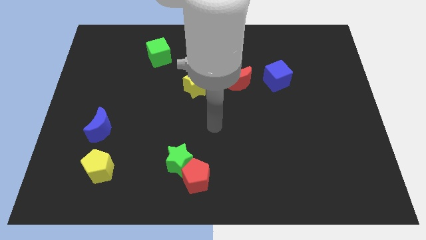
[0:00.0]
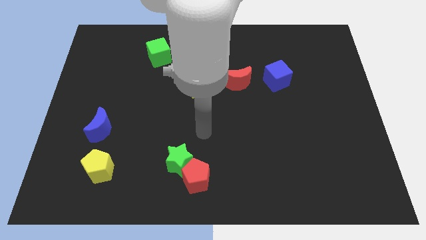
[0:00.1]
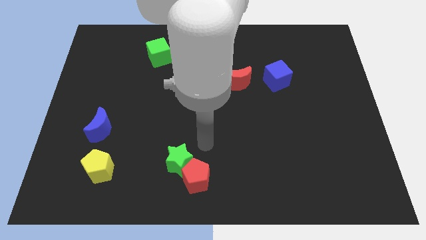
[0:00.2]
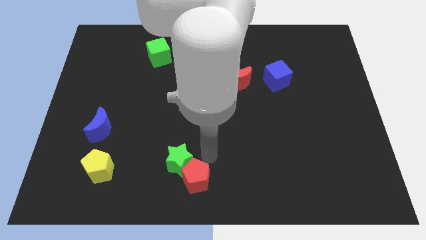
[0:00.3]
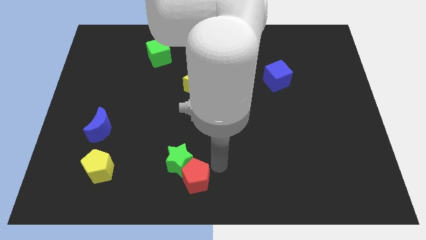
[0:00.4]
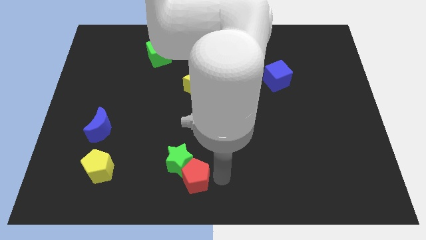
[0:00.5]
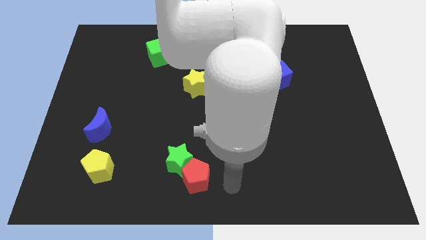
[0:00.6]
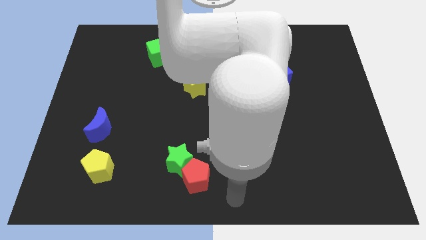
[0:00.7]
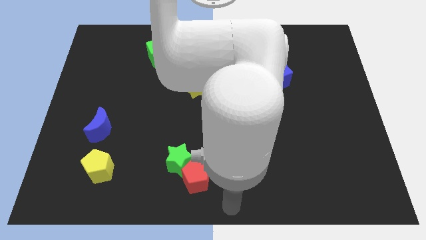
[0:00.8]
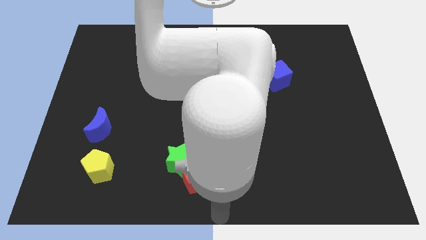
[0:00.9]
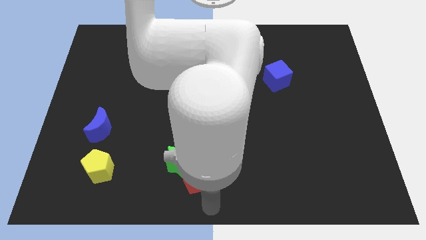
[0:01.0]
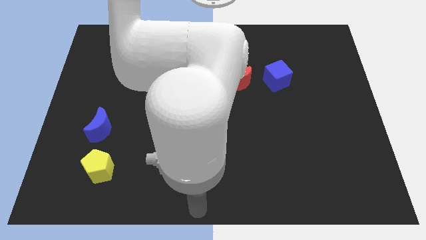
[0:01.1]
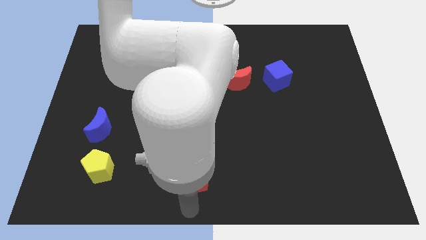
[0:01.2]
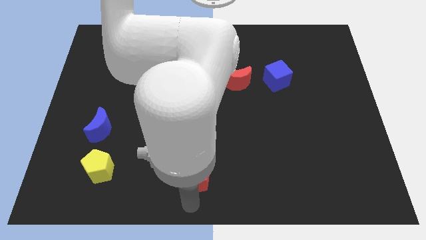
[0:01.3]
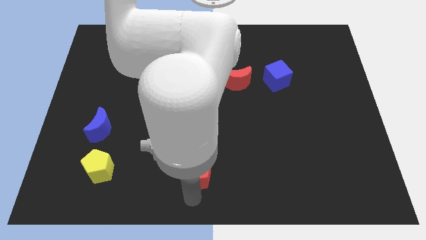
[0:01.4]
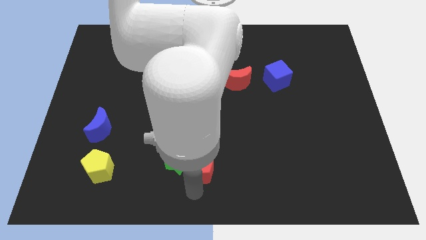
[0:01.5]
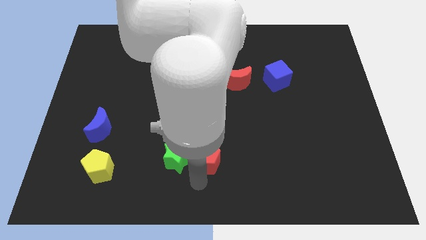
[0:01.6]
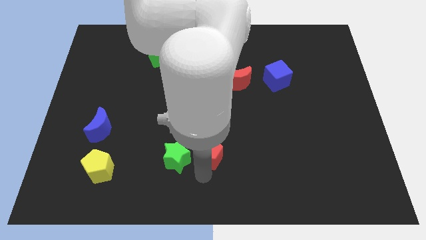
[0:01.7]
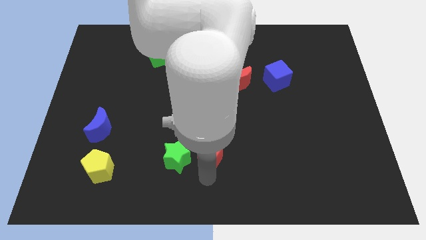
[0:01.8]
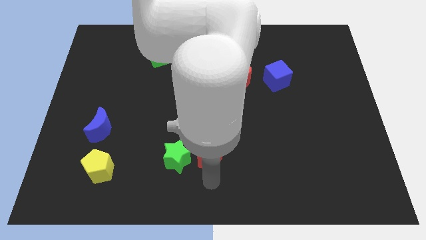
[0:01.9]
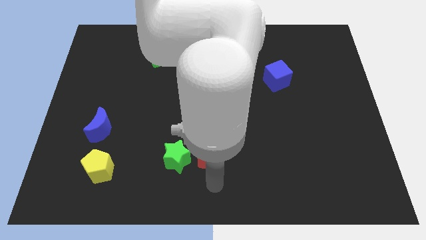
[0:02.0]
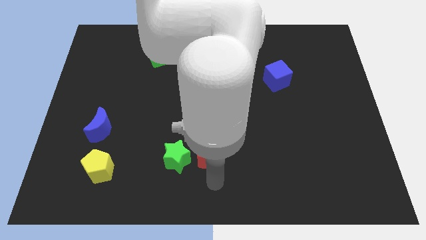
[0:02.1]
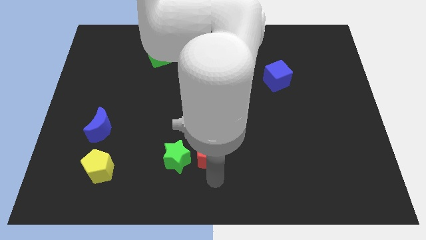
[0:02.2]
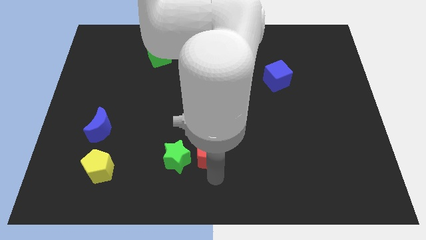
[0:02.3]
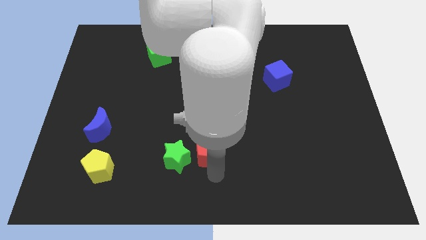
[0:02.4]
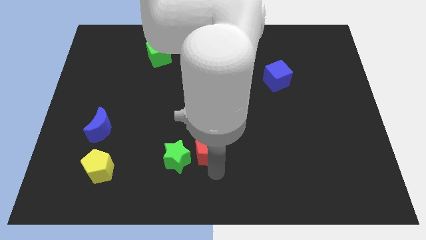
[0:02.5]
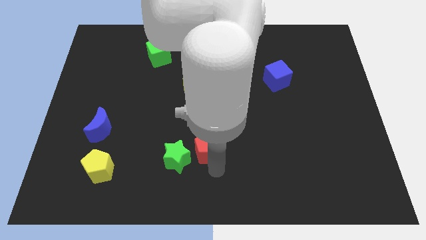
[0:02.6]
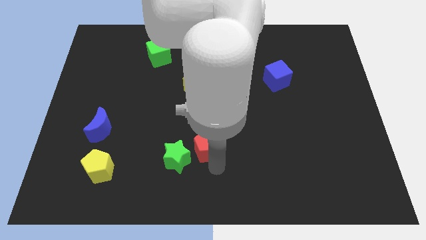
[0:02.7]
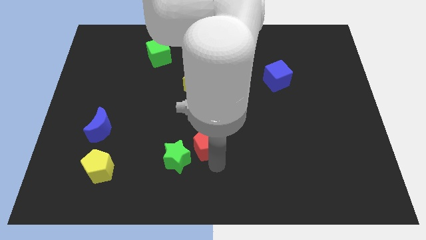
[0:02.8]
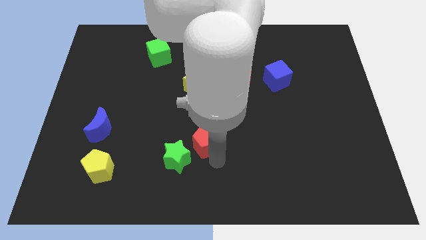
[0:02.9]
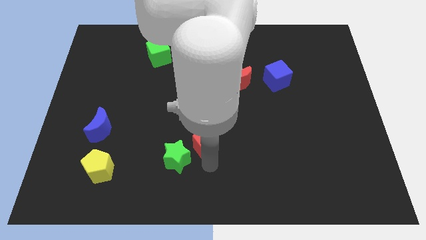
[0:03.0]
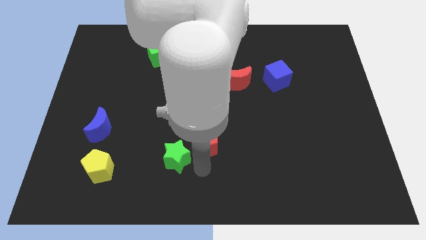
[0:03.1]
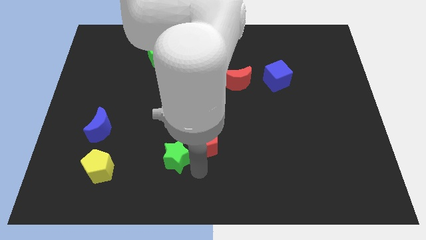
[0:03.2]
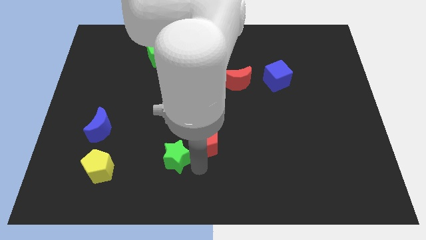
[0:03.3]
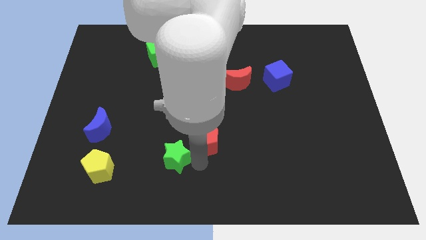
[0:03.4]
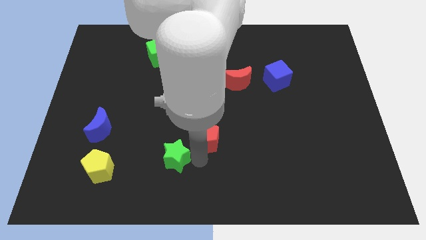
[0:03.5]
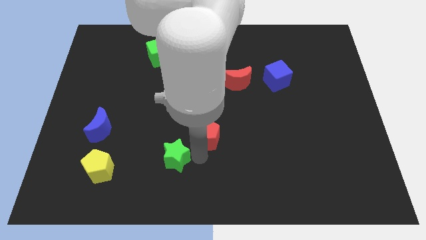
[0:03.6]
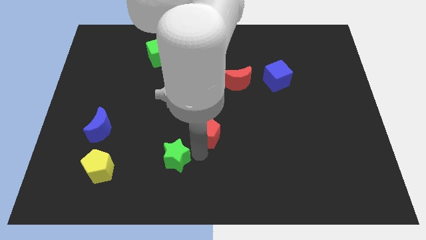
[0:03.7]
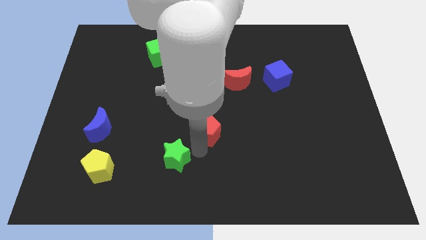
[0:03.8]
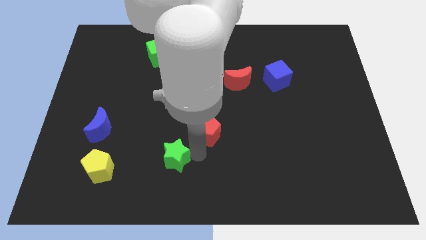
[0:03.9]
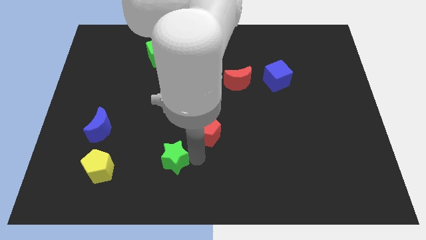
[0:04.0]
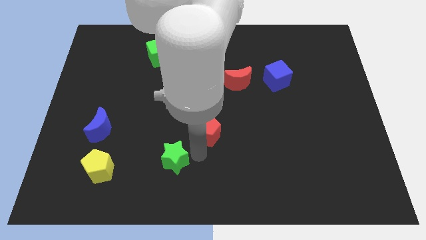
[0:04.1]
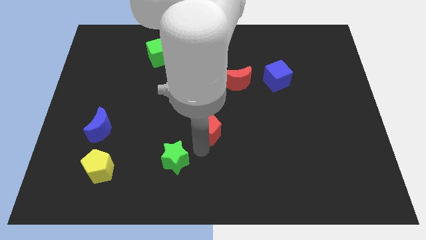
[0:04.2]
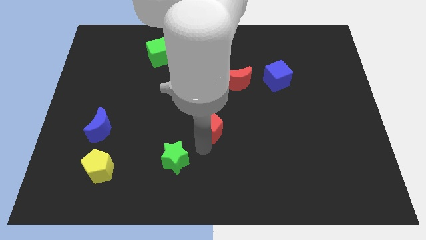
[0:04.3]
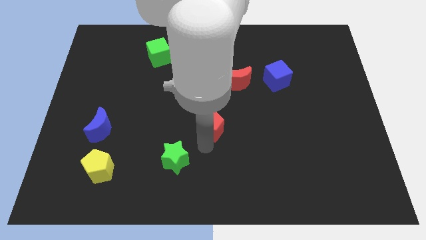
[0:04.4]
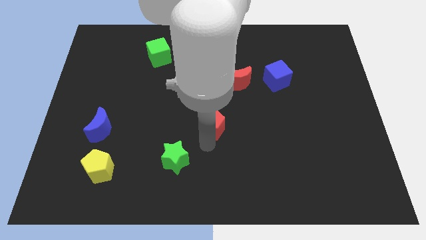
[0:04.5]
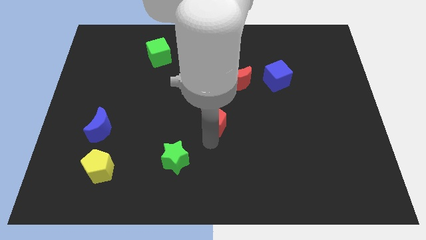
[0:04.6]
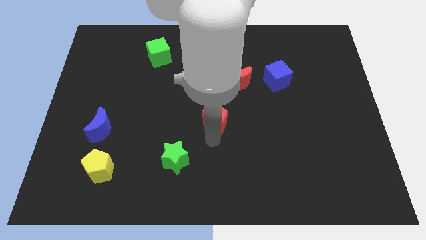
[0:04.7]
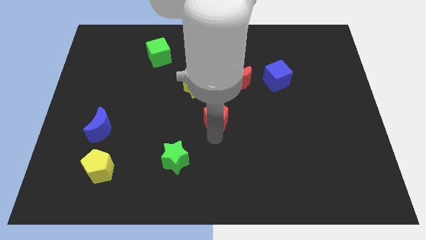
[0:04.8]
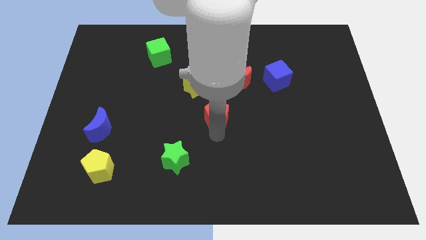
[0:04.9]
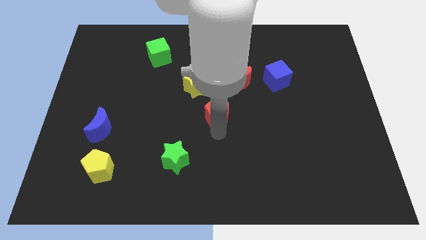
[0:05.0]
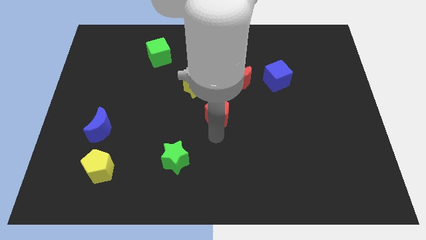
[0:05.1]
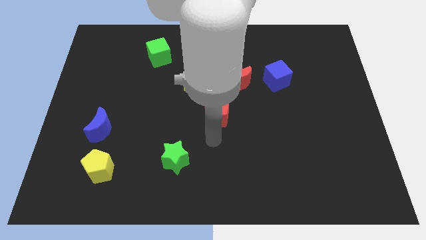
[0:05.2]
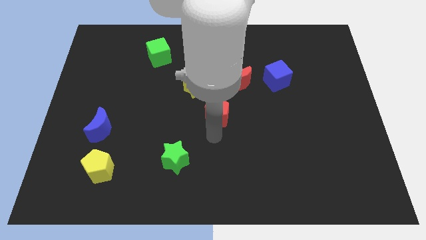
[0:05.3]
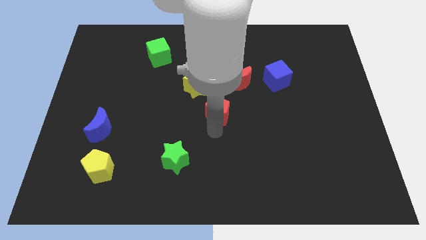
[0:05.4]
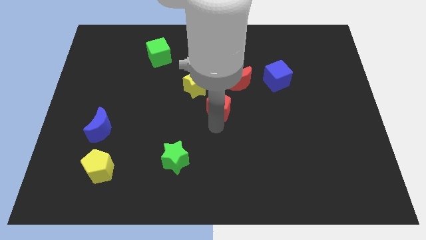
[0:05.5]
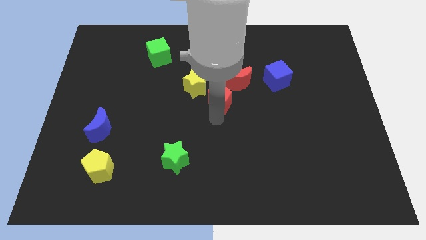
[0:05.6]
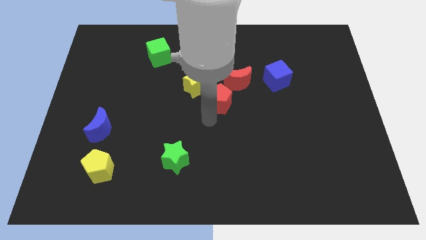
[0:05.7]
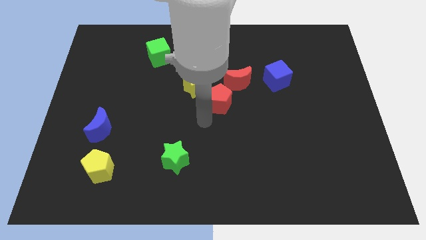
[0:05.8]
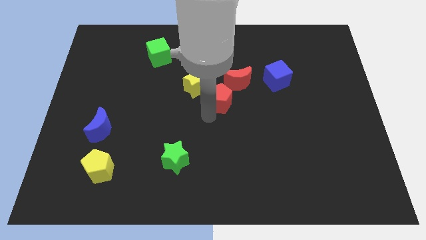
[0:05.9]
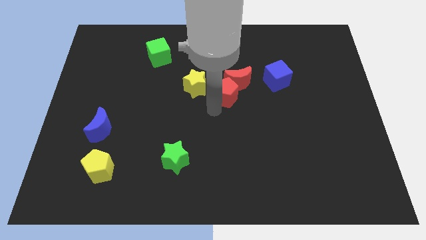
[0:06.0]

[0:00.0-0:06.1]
put the red pentagon to the red moon

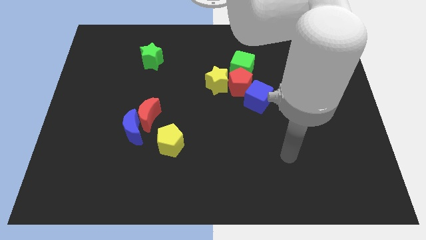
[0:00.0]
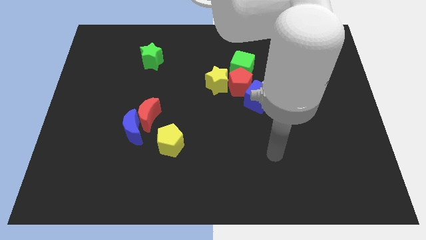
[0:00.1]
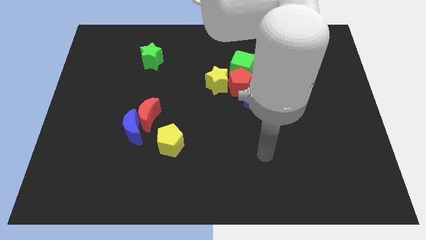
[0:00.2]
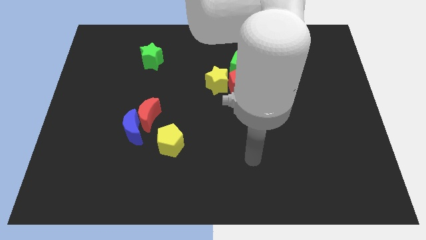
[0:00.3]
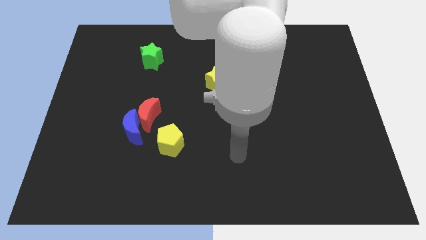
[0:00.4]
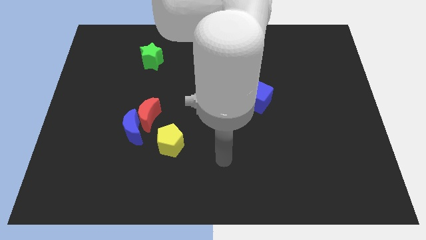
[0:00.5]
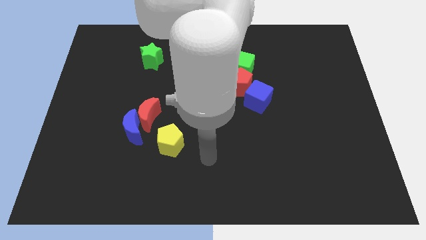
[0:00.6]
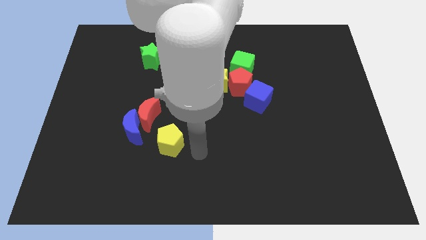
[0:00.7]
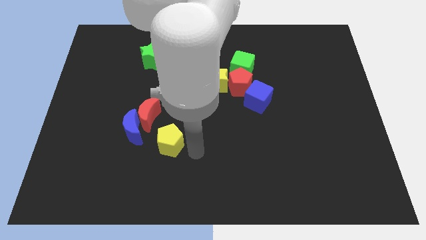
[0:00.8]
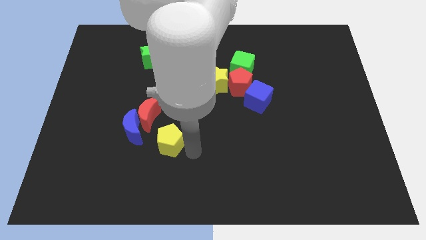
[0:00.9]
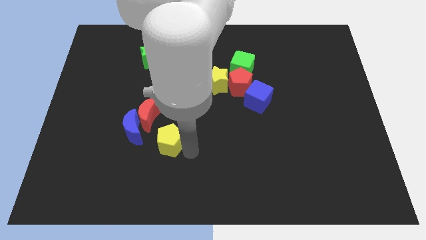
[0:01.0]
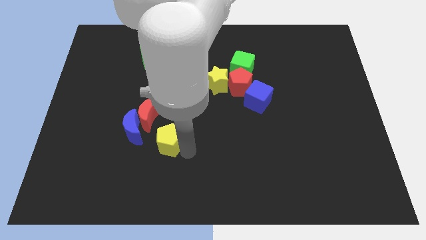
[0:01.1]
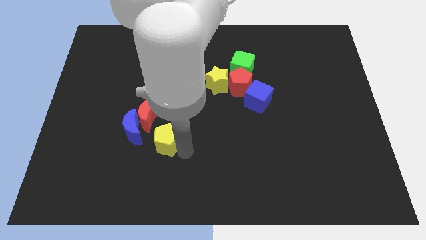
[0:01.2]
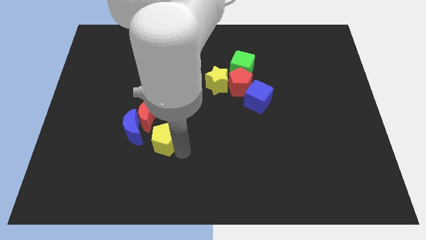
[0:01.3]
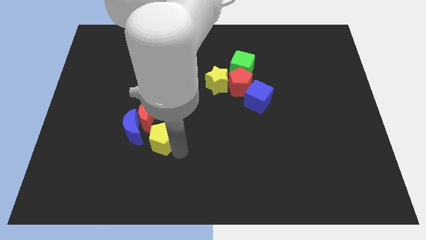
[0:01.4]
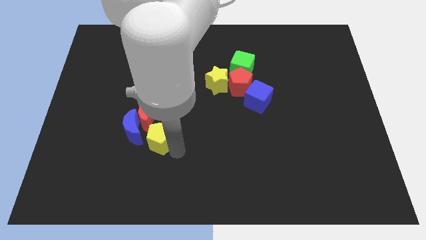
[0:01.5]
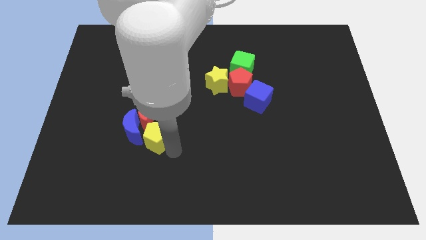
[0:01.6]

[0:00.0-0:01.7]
push the yellow pentagon to the blue moon
